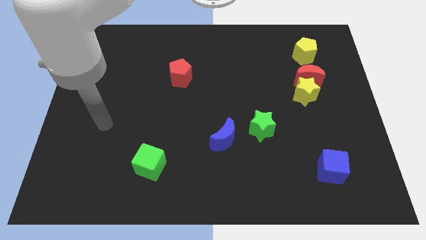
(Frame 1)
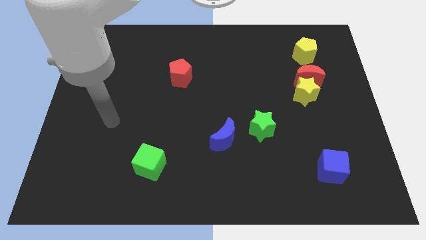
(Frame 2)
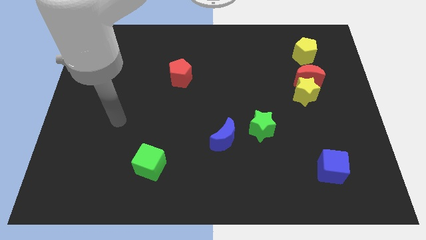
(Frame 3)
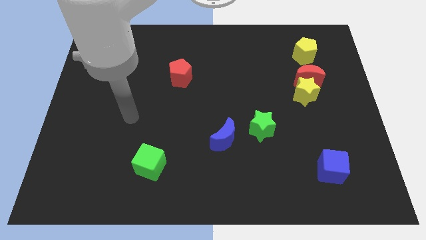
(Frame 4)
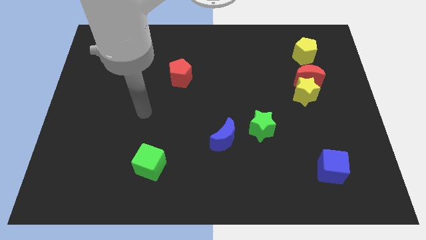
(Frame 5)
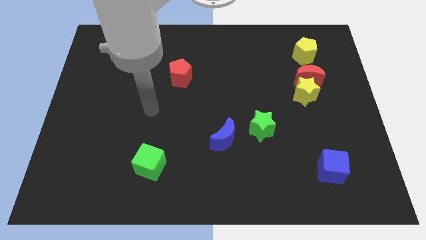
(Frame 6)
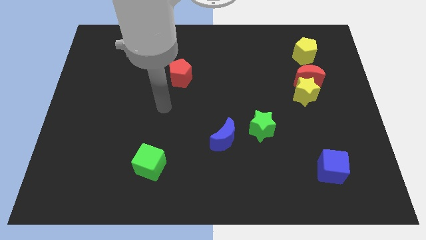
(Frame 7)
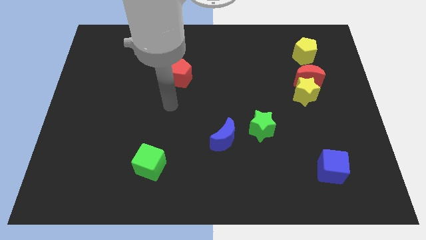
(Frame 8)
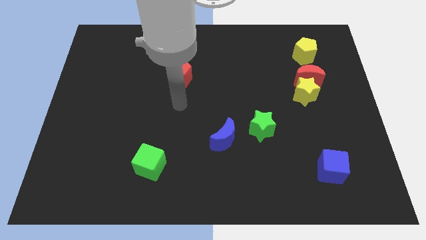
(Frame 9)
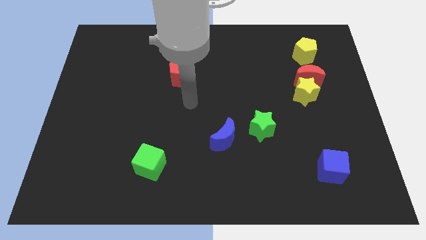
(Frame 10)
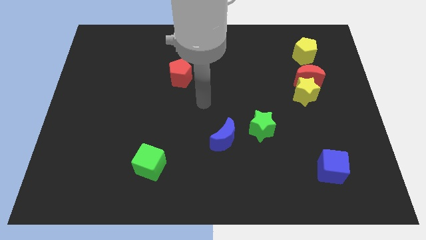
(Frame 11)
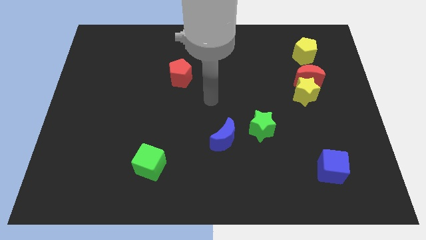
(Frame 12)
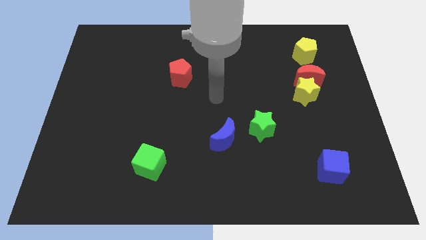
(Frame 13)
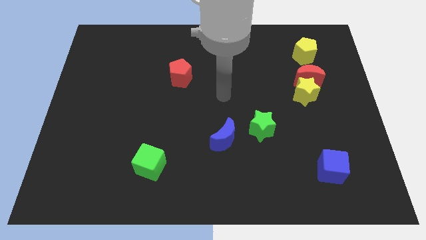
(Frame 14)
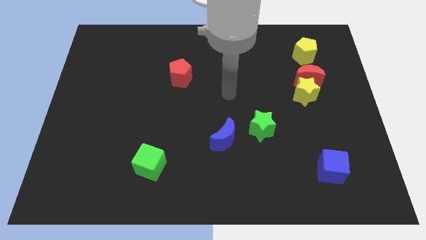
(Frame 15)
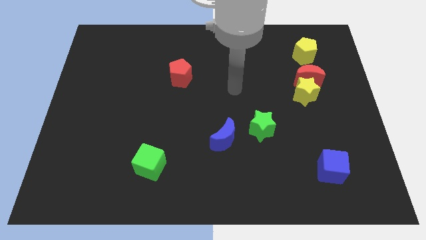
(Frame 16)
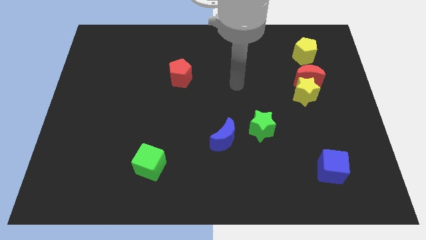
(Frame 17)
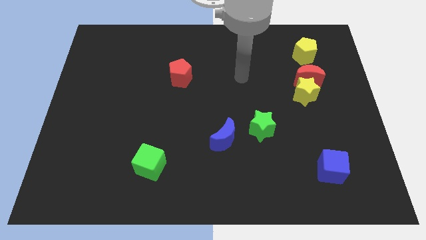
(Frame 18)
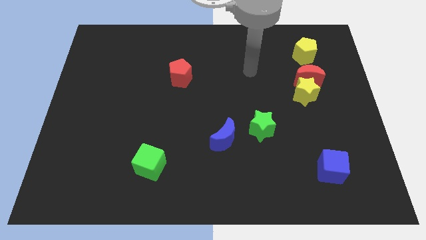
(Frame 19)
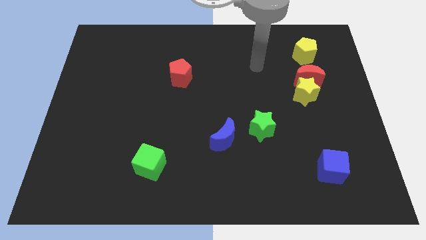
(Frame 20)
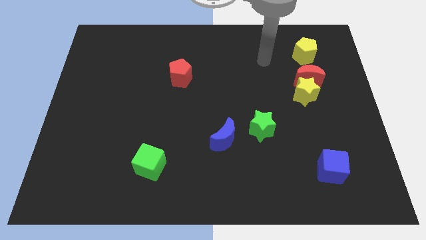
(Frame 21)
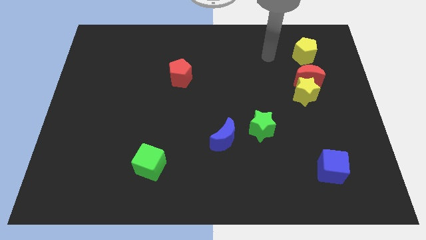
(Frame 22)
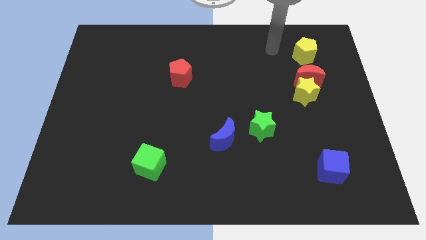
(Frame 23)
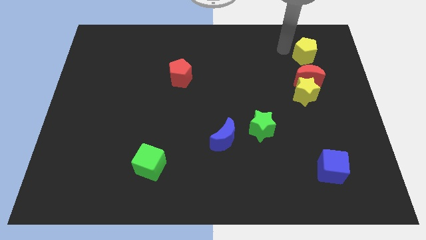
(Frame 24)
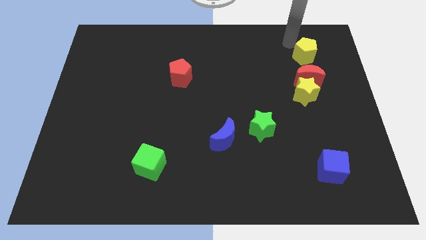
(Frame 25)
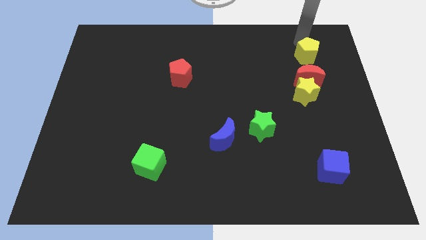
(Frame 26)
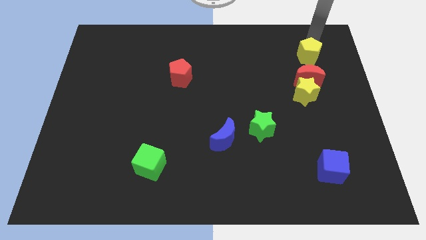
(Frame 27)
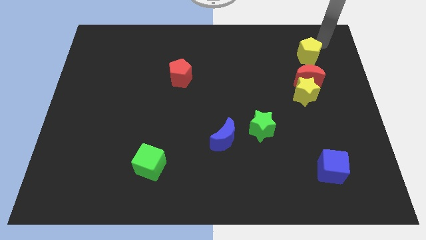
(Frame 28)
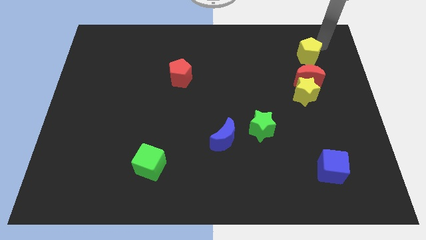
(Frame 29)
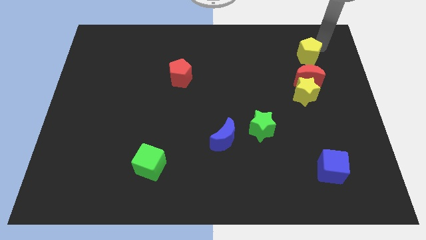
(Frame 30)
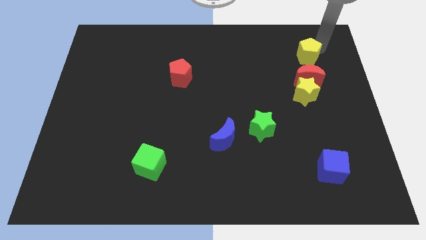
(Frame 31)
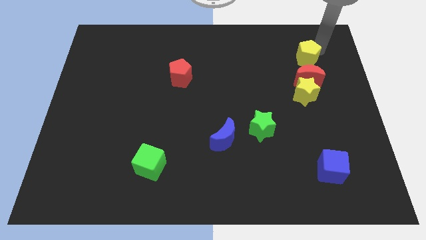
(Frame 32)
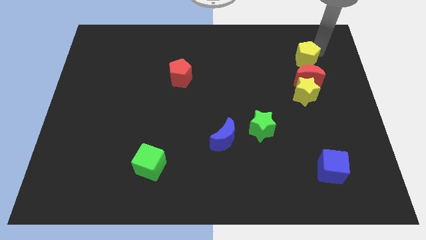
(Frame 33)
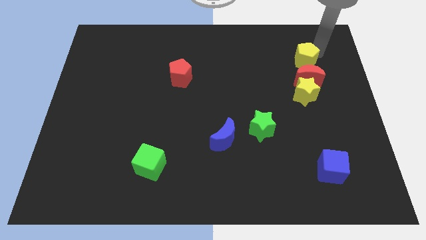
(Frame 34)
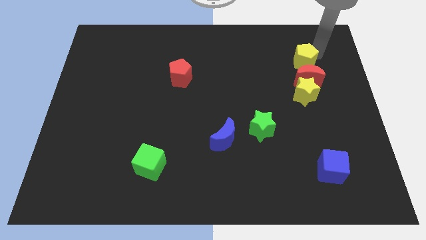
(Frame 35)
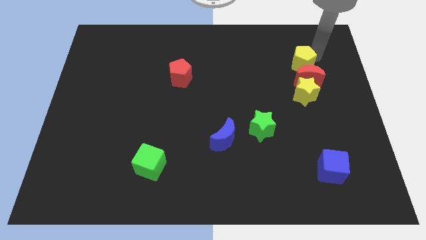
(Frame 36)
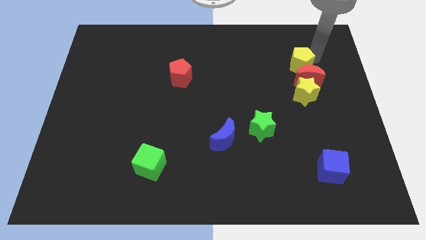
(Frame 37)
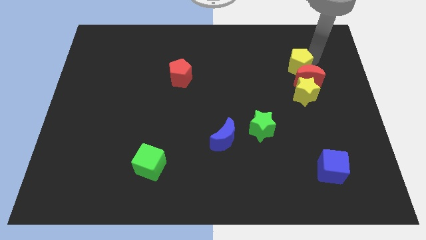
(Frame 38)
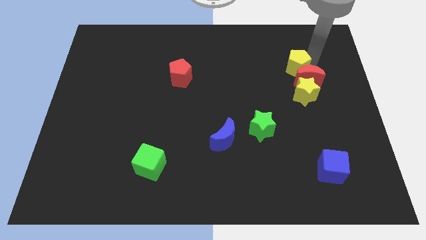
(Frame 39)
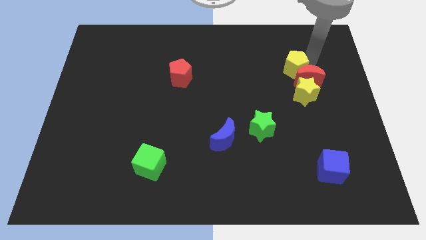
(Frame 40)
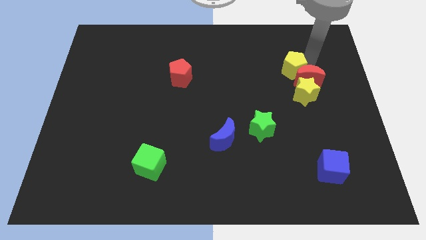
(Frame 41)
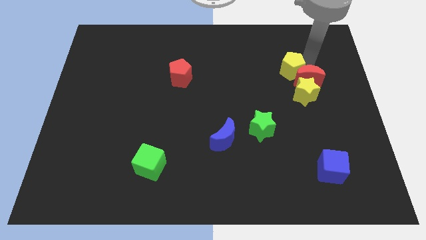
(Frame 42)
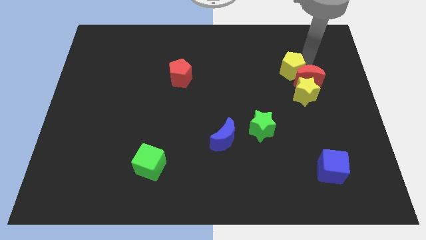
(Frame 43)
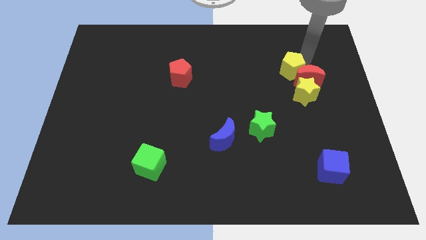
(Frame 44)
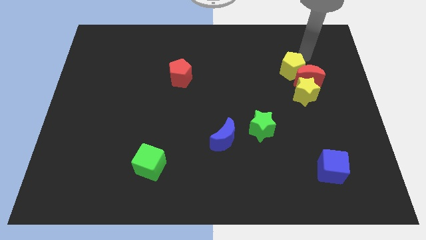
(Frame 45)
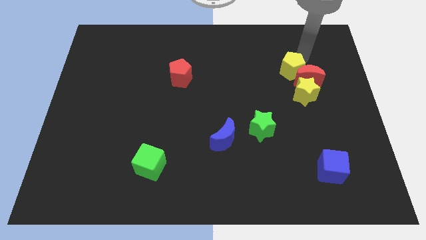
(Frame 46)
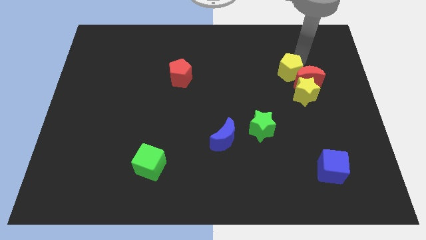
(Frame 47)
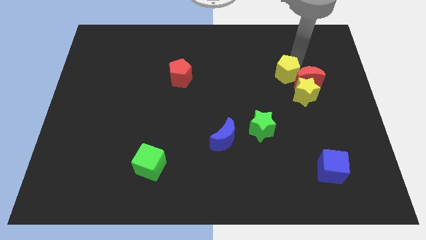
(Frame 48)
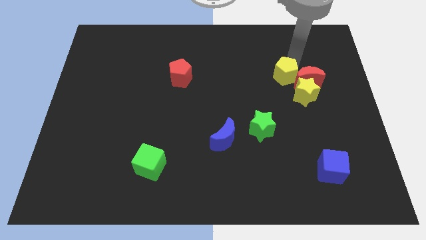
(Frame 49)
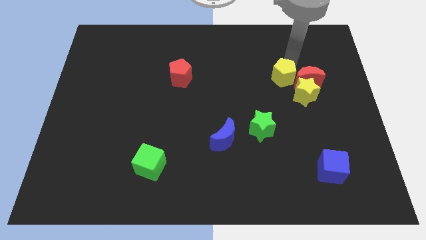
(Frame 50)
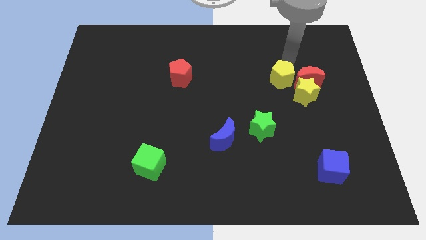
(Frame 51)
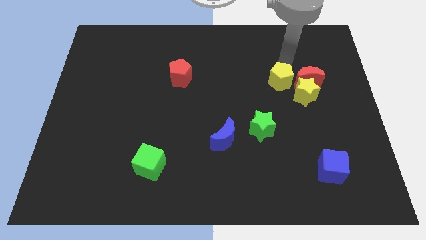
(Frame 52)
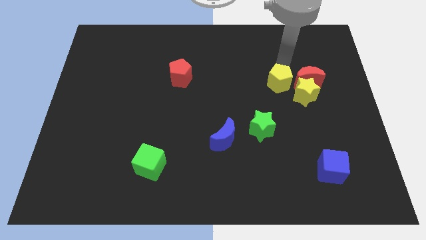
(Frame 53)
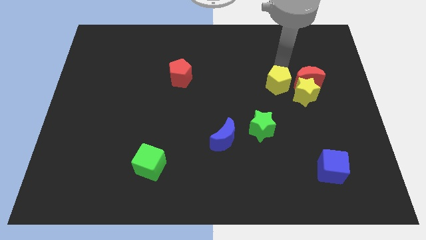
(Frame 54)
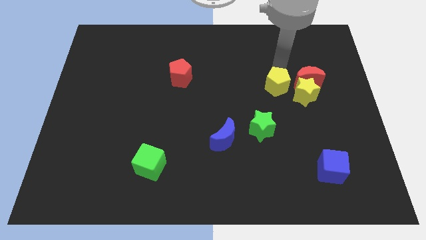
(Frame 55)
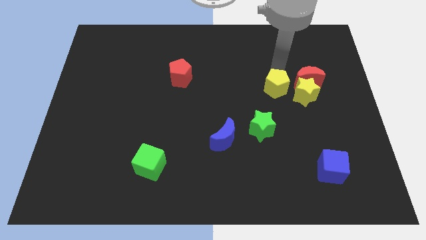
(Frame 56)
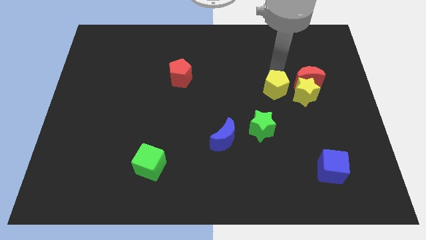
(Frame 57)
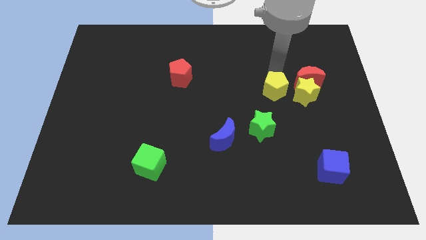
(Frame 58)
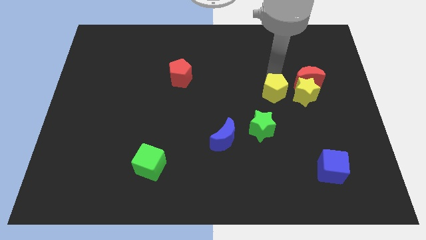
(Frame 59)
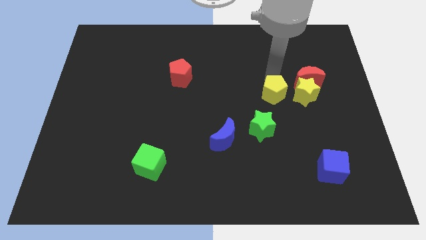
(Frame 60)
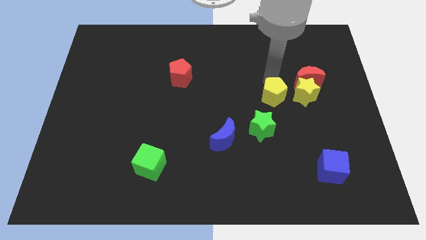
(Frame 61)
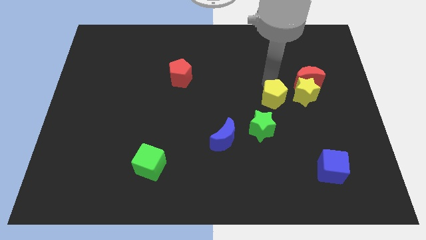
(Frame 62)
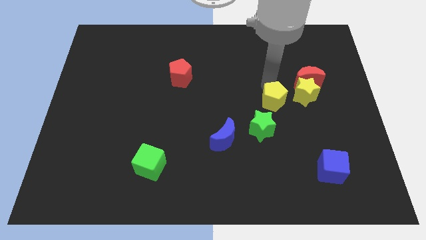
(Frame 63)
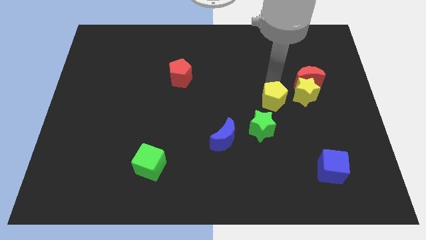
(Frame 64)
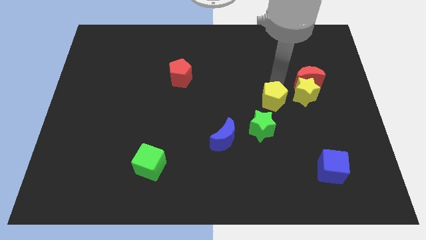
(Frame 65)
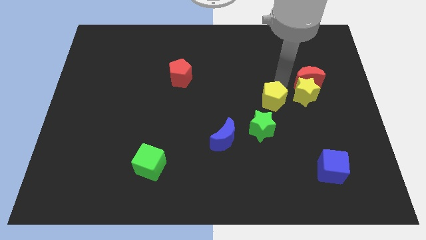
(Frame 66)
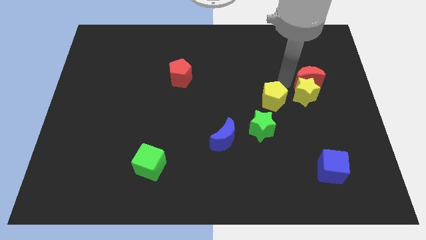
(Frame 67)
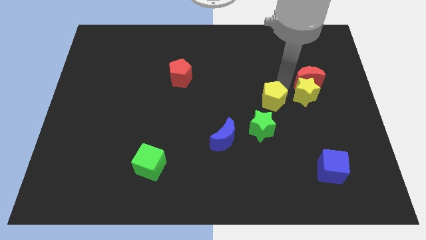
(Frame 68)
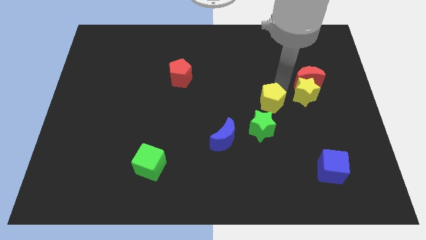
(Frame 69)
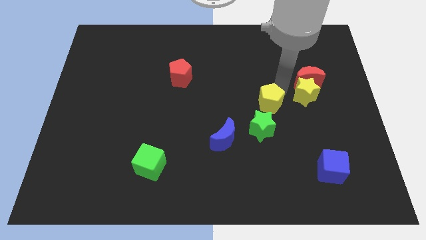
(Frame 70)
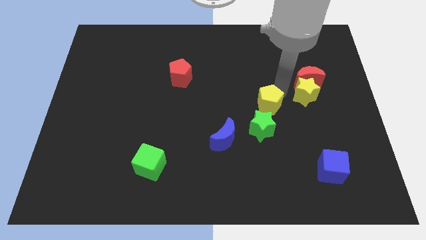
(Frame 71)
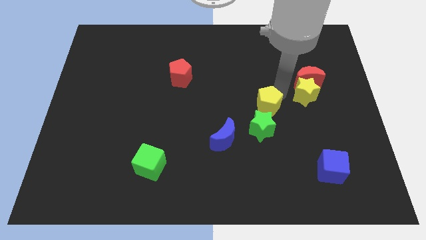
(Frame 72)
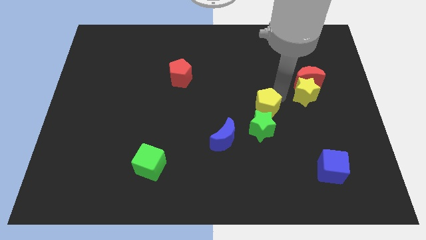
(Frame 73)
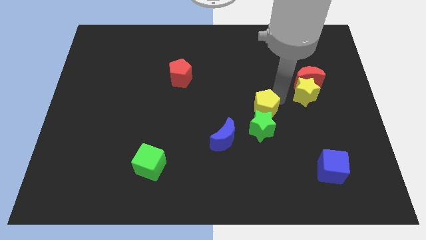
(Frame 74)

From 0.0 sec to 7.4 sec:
move the yellow pentagon close to the green star
